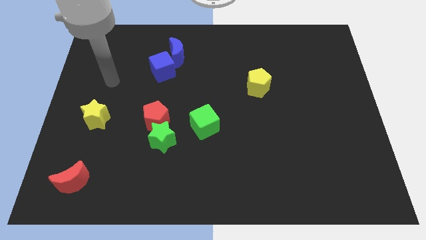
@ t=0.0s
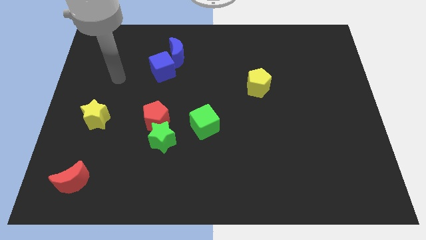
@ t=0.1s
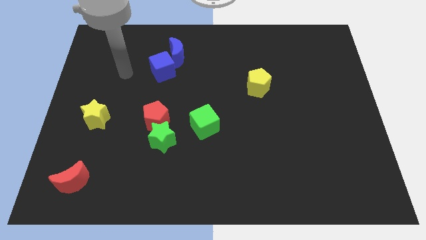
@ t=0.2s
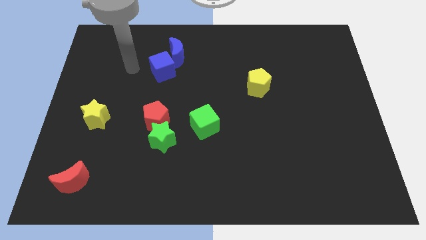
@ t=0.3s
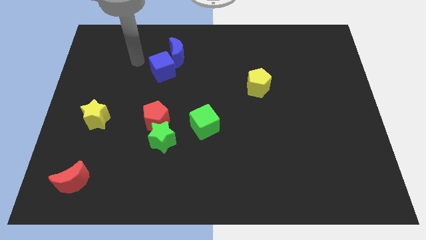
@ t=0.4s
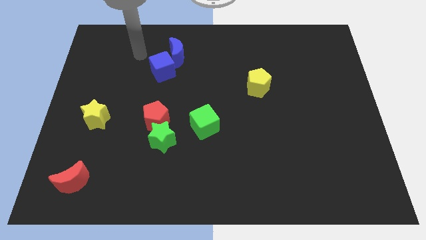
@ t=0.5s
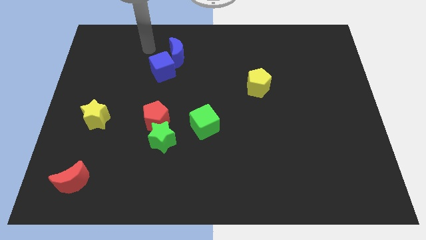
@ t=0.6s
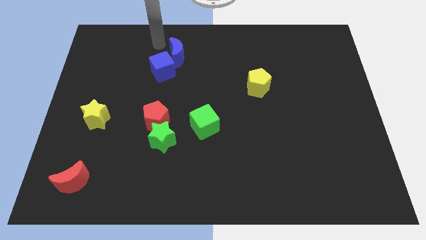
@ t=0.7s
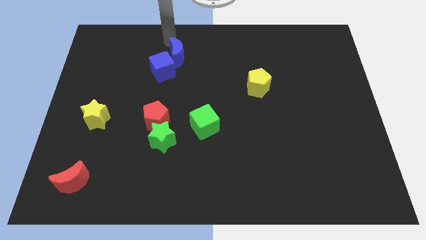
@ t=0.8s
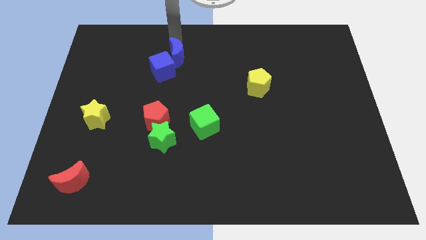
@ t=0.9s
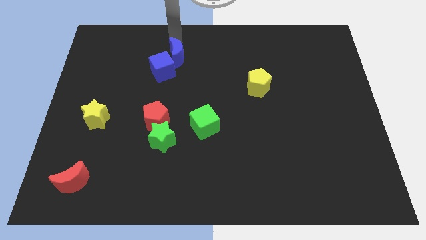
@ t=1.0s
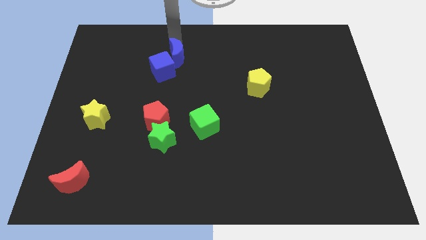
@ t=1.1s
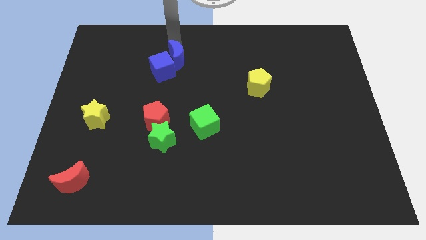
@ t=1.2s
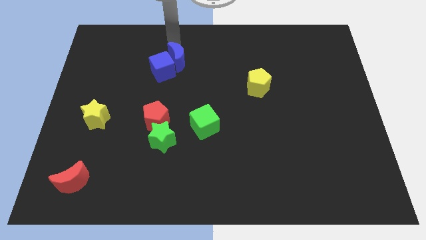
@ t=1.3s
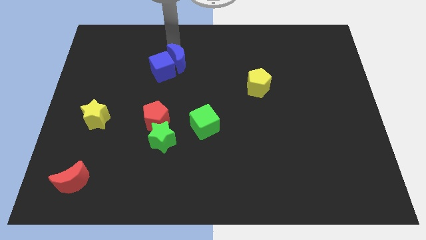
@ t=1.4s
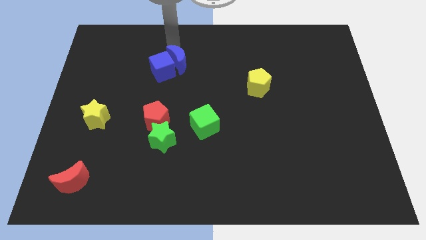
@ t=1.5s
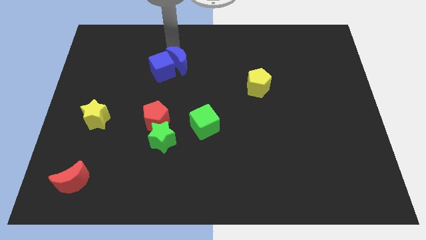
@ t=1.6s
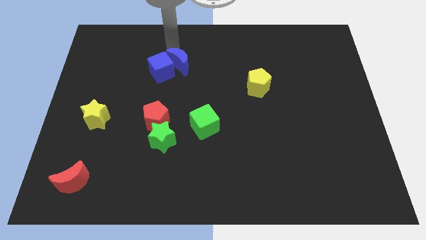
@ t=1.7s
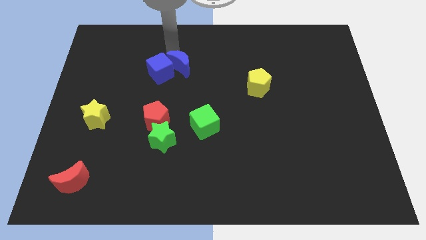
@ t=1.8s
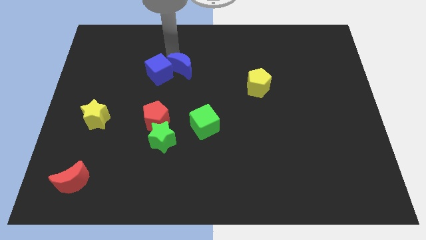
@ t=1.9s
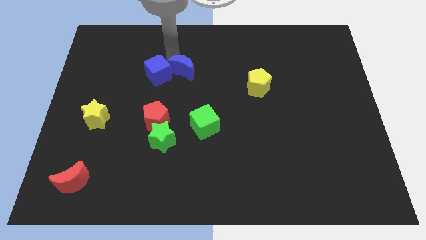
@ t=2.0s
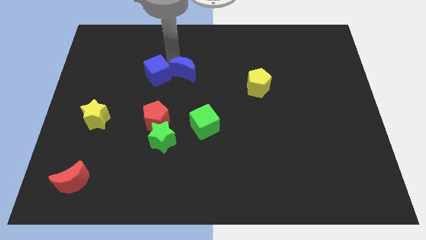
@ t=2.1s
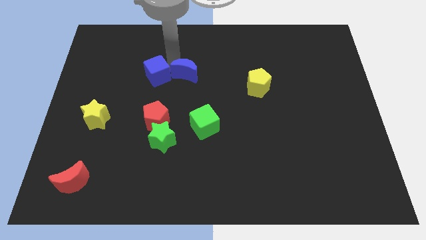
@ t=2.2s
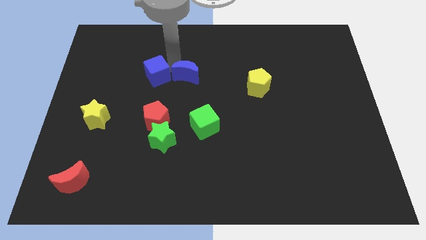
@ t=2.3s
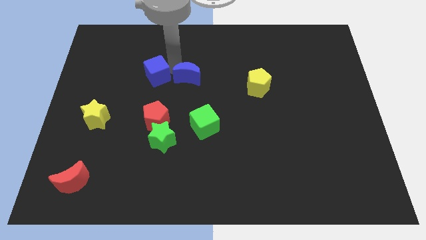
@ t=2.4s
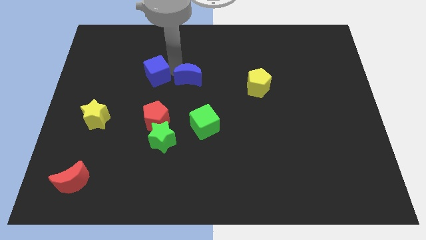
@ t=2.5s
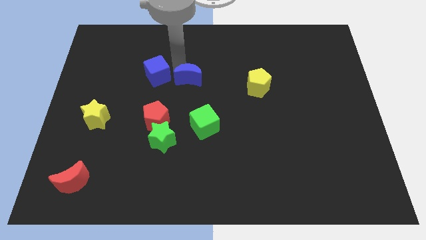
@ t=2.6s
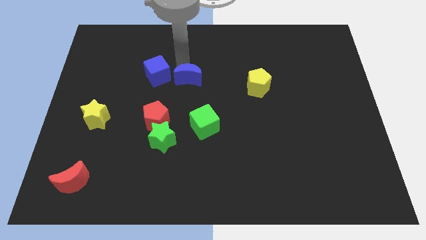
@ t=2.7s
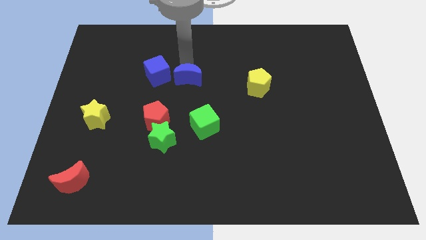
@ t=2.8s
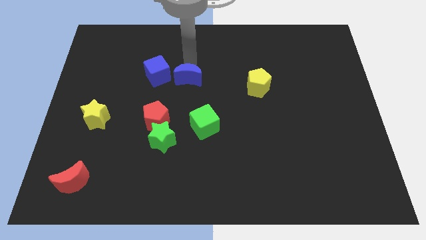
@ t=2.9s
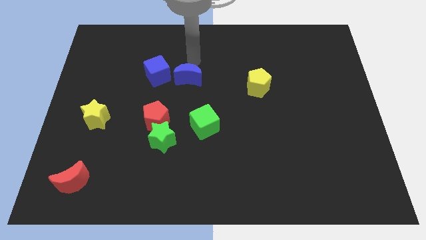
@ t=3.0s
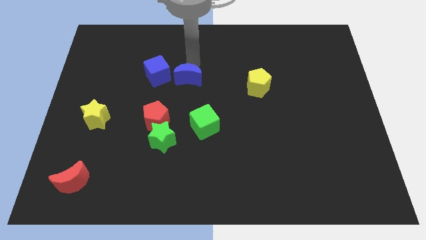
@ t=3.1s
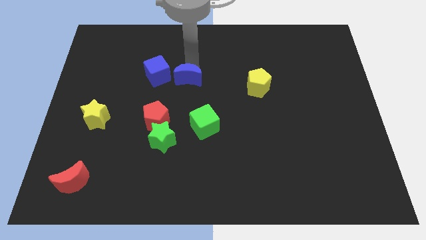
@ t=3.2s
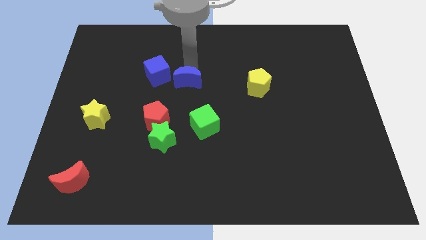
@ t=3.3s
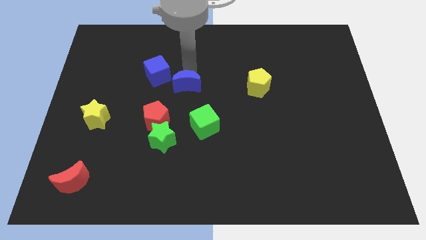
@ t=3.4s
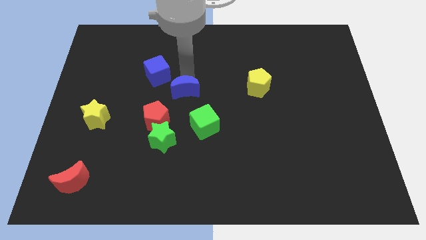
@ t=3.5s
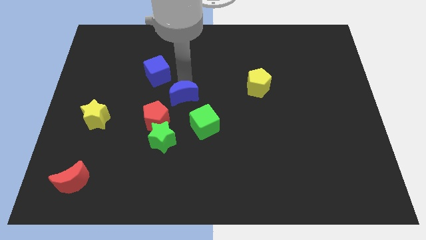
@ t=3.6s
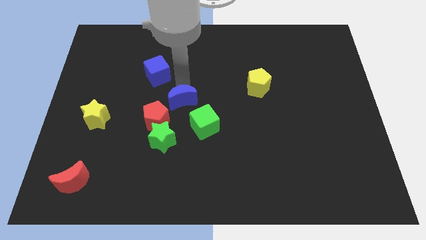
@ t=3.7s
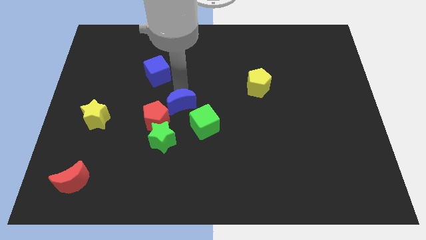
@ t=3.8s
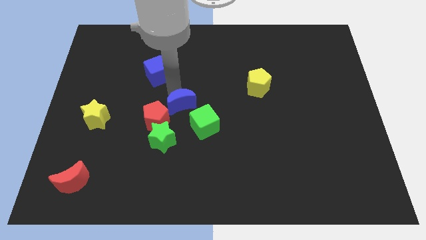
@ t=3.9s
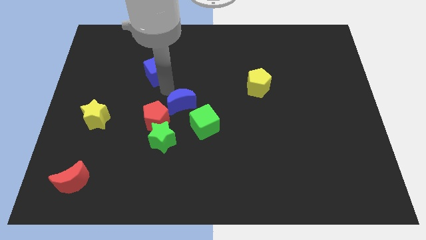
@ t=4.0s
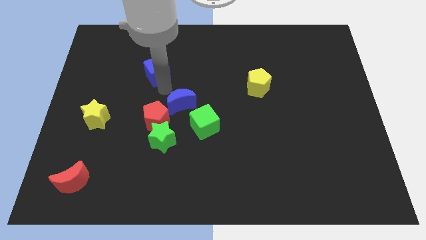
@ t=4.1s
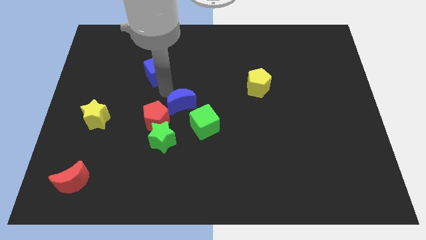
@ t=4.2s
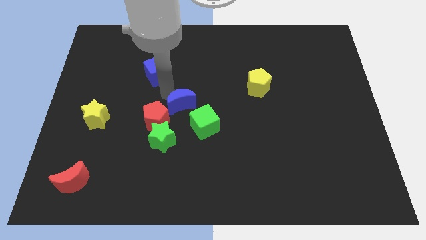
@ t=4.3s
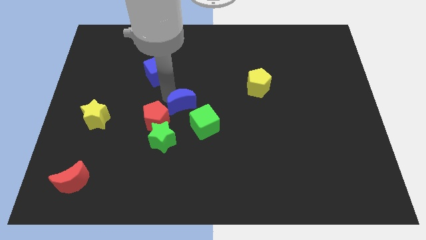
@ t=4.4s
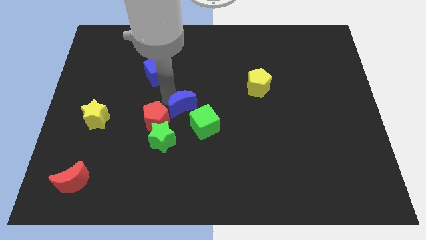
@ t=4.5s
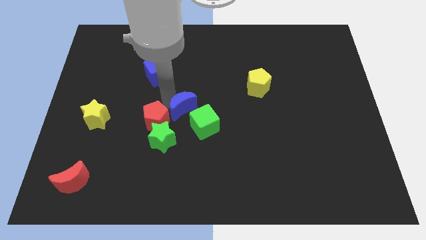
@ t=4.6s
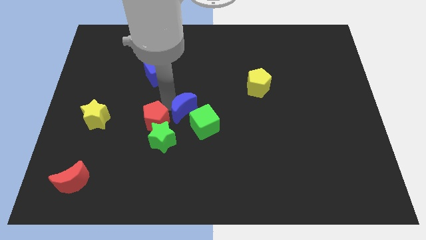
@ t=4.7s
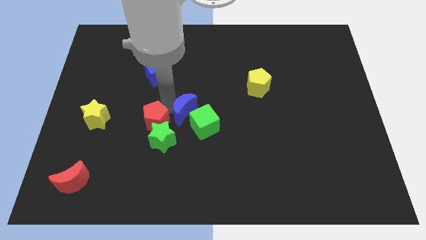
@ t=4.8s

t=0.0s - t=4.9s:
move the blue moon close to the green cube

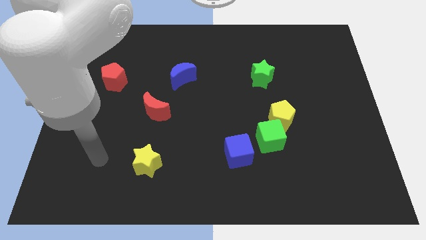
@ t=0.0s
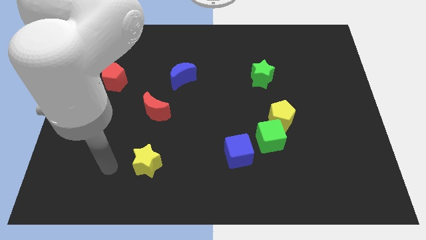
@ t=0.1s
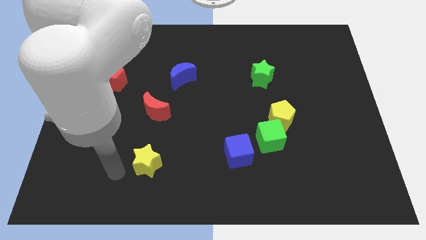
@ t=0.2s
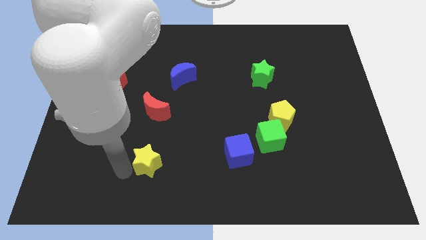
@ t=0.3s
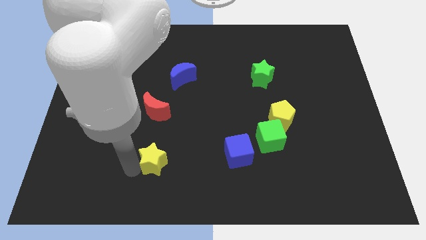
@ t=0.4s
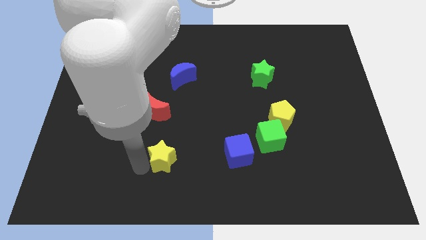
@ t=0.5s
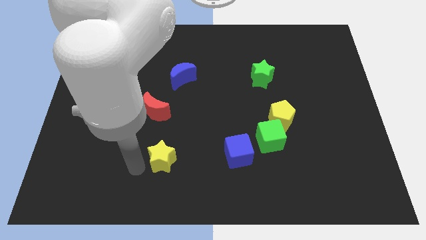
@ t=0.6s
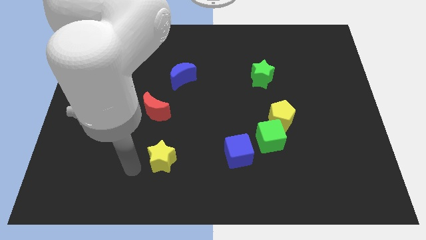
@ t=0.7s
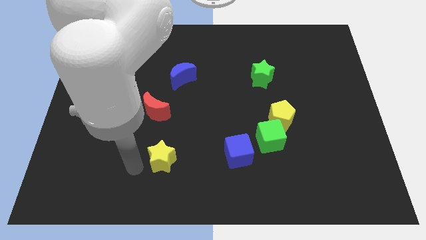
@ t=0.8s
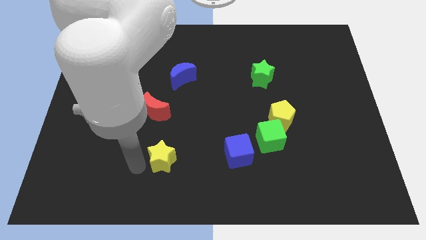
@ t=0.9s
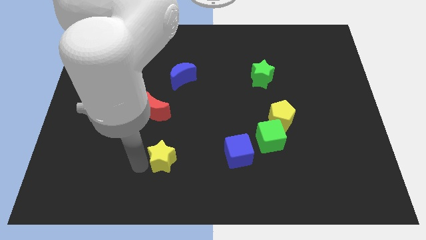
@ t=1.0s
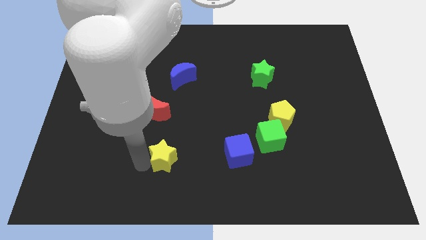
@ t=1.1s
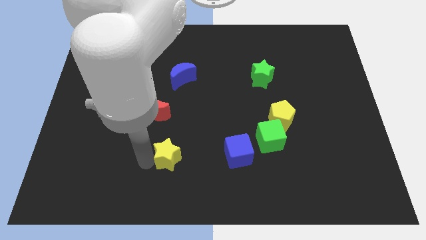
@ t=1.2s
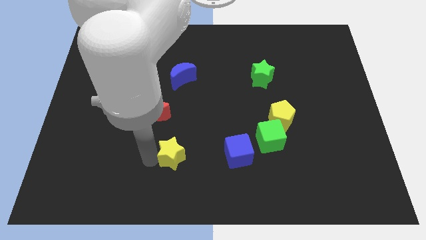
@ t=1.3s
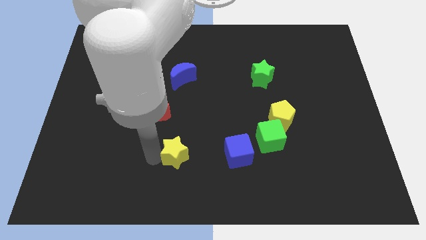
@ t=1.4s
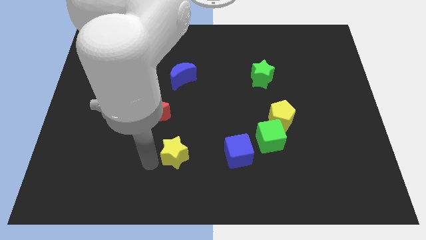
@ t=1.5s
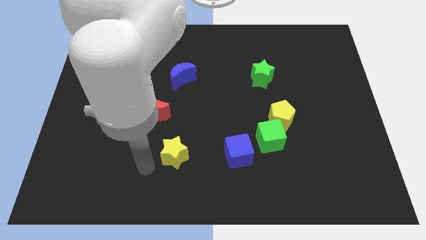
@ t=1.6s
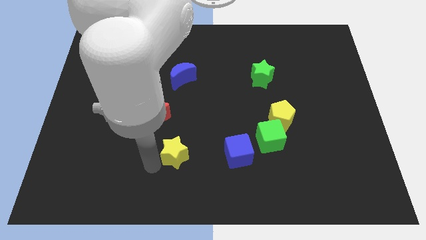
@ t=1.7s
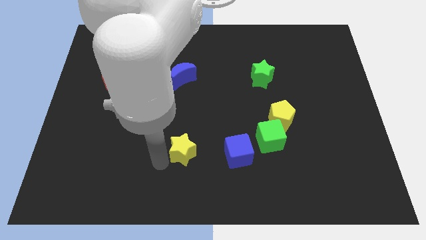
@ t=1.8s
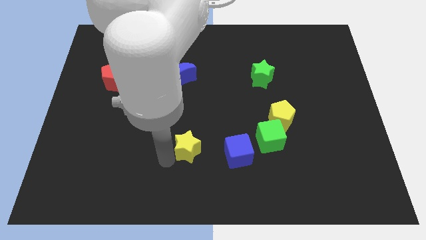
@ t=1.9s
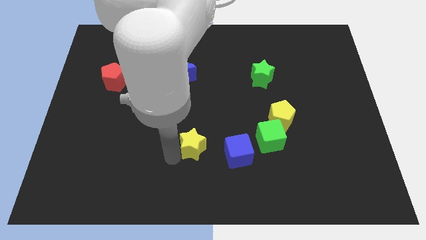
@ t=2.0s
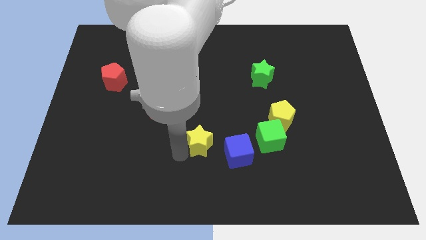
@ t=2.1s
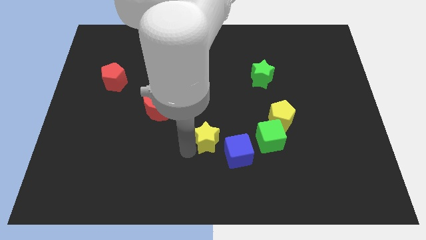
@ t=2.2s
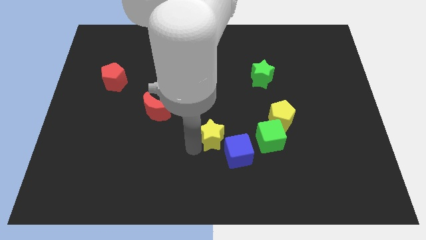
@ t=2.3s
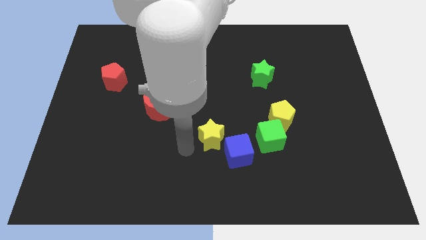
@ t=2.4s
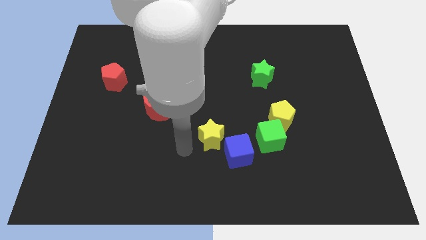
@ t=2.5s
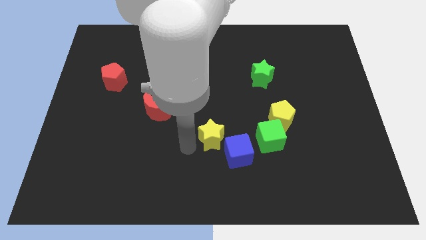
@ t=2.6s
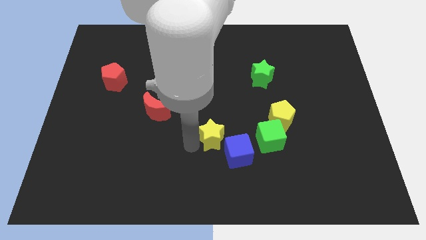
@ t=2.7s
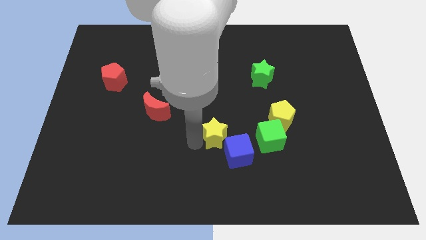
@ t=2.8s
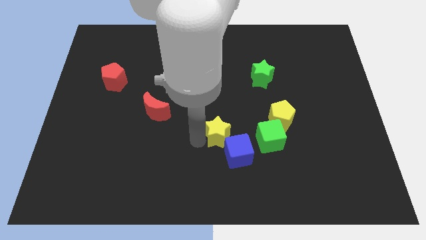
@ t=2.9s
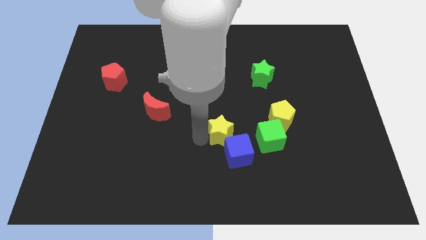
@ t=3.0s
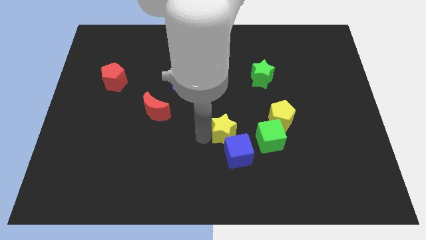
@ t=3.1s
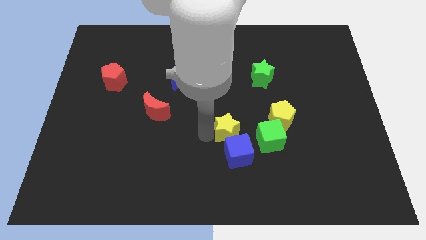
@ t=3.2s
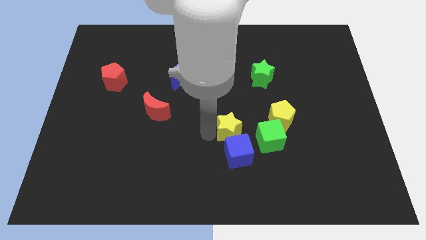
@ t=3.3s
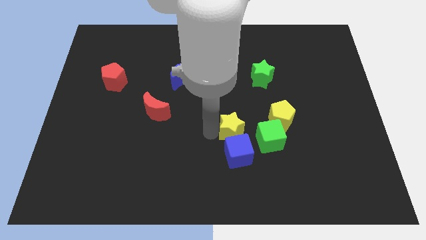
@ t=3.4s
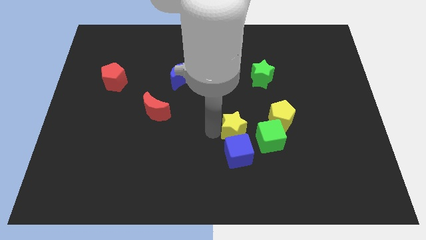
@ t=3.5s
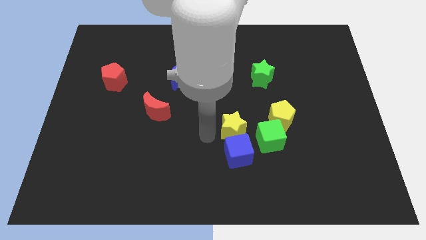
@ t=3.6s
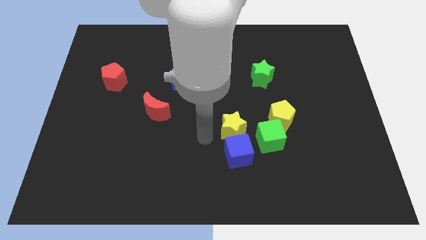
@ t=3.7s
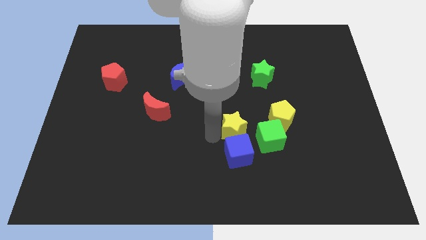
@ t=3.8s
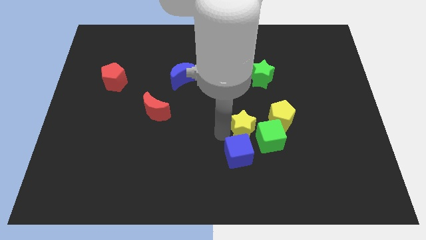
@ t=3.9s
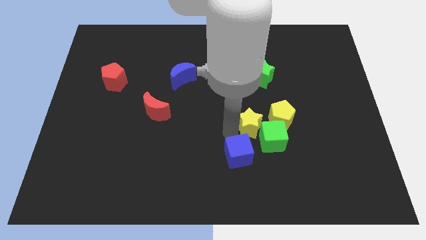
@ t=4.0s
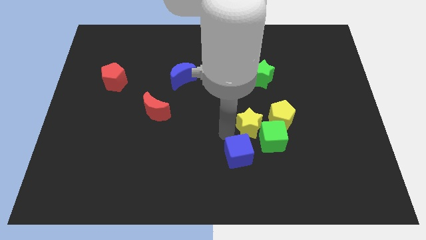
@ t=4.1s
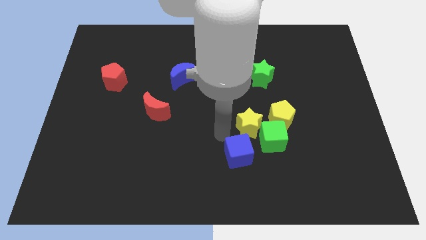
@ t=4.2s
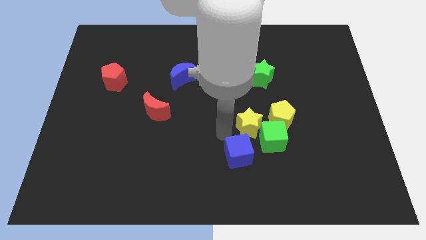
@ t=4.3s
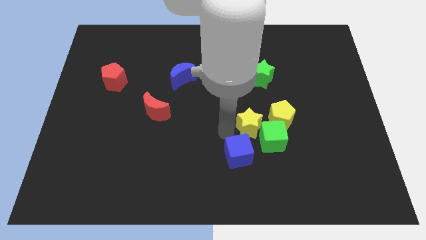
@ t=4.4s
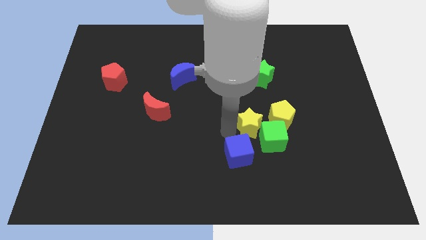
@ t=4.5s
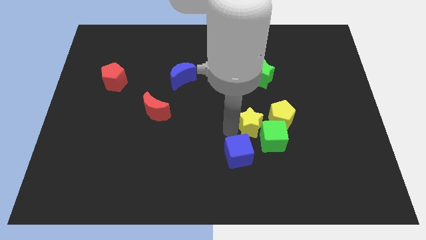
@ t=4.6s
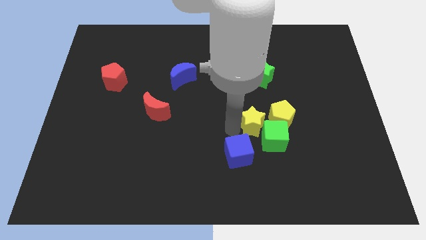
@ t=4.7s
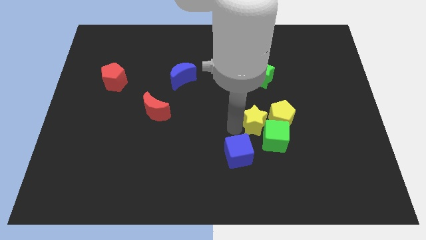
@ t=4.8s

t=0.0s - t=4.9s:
put the yellow star next to the yellow pentagon
